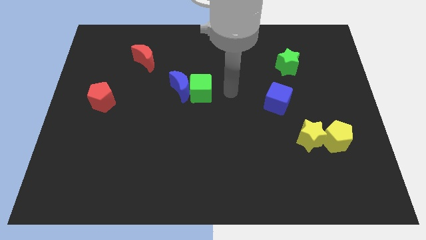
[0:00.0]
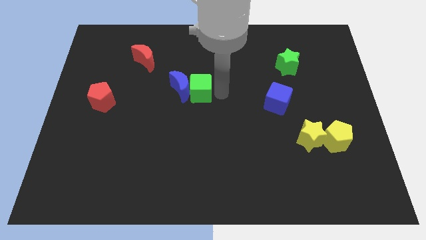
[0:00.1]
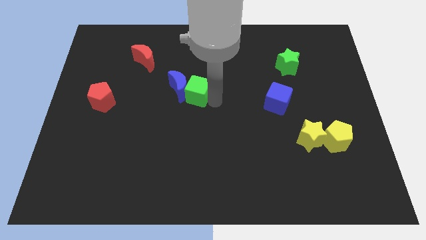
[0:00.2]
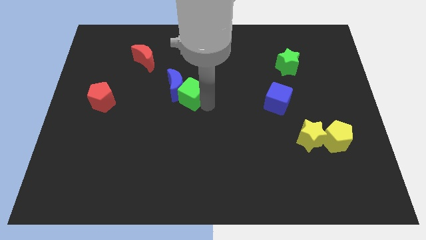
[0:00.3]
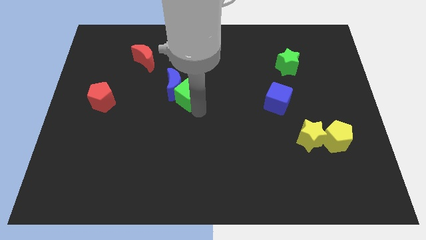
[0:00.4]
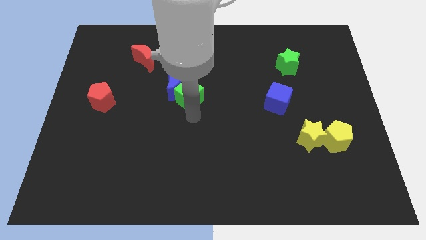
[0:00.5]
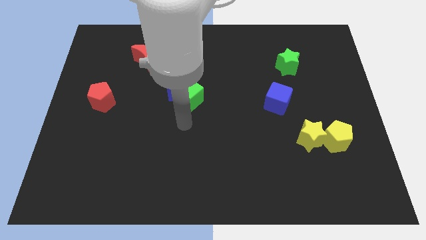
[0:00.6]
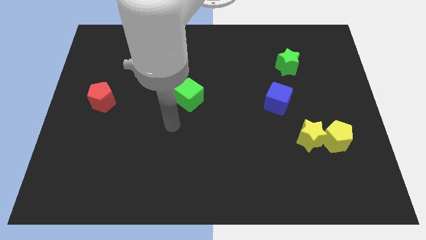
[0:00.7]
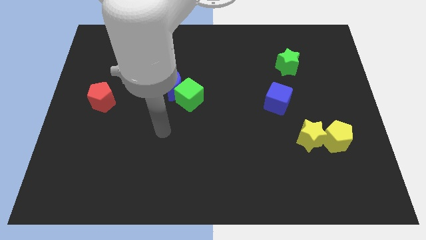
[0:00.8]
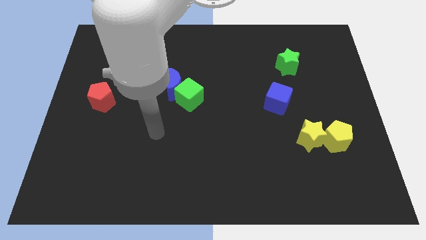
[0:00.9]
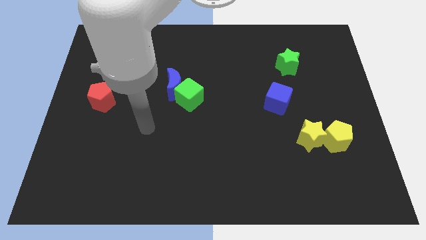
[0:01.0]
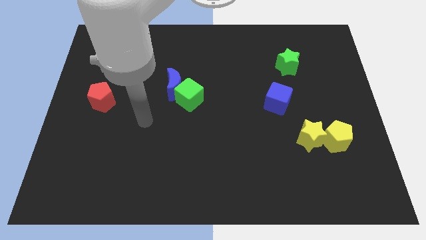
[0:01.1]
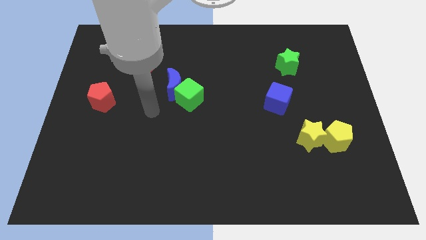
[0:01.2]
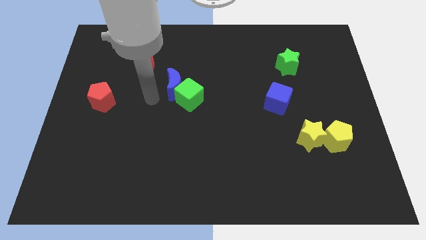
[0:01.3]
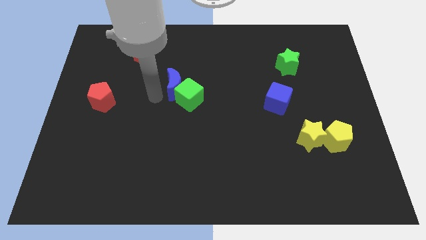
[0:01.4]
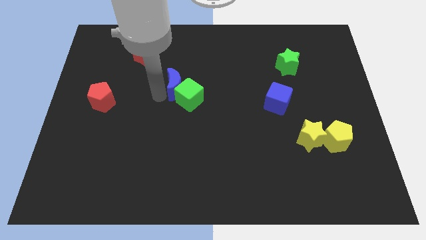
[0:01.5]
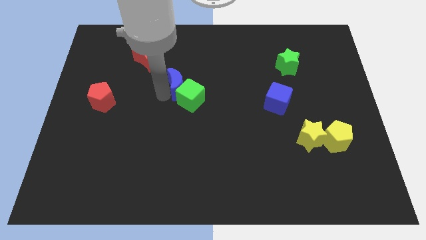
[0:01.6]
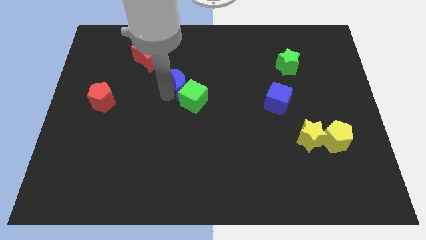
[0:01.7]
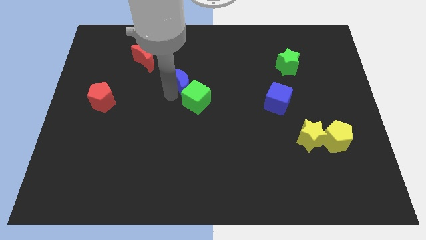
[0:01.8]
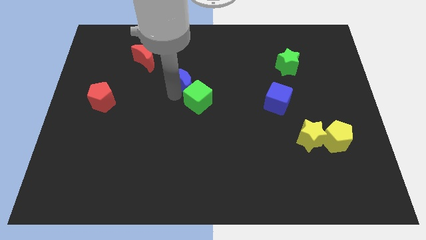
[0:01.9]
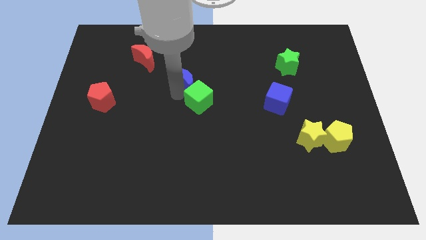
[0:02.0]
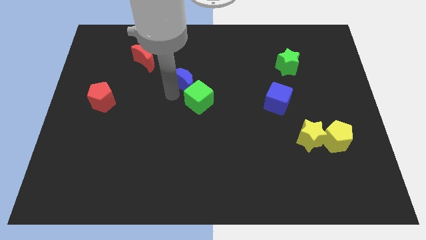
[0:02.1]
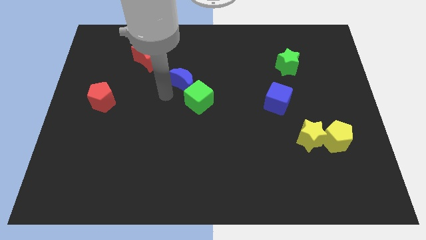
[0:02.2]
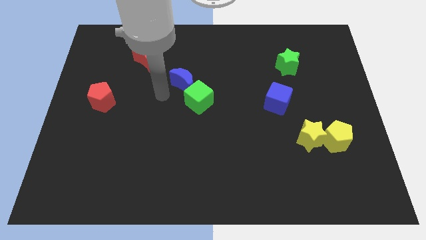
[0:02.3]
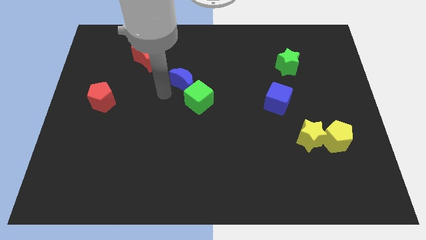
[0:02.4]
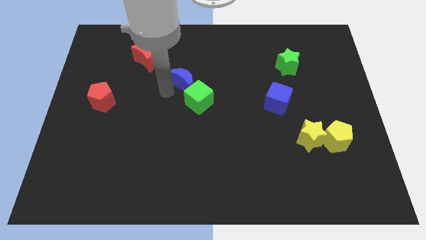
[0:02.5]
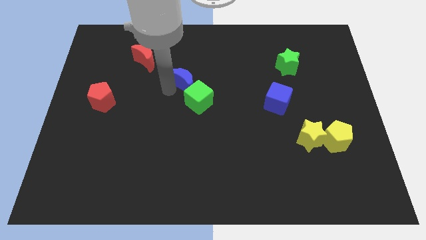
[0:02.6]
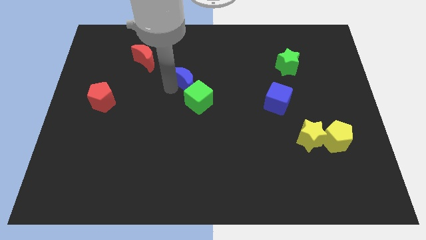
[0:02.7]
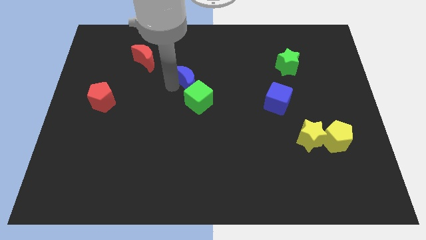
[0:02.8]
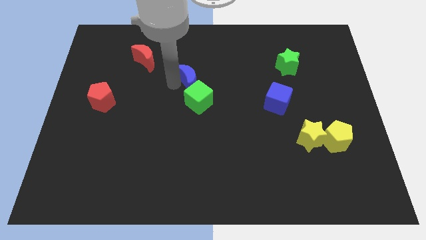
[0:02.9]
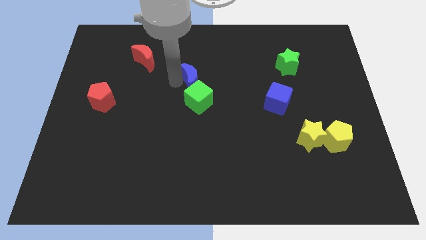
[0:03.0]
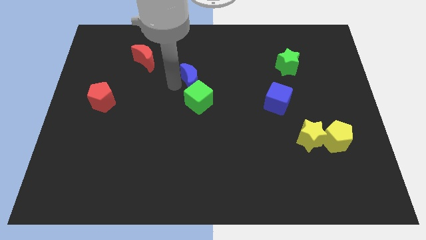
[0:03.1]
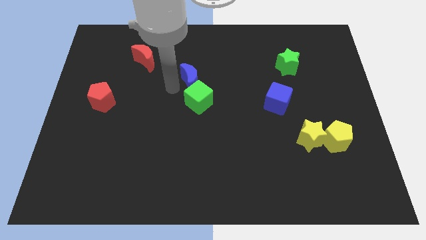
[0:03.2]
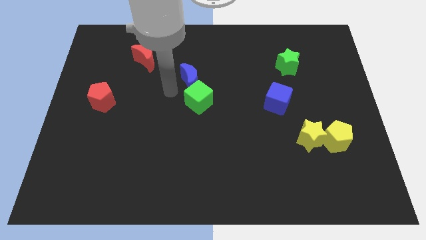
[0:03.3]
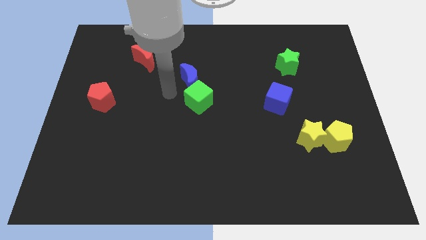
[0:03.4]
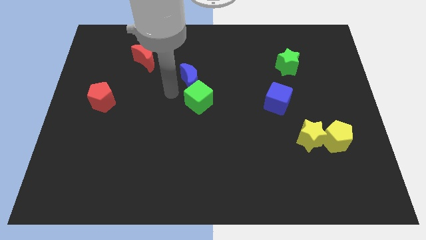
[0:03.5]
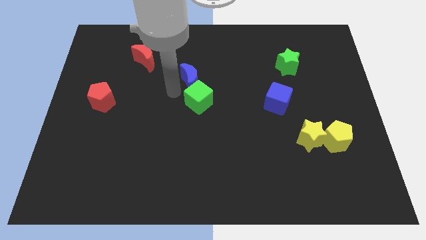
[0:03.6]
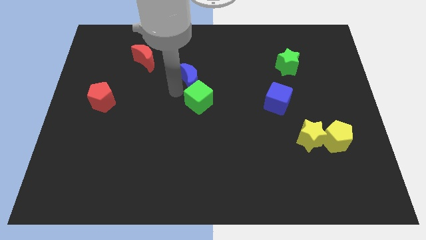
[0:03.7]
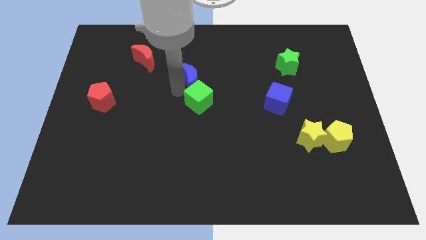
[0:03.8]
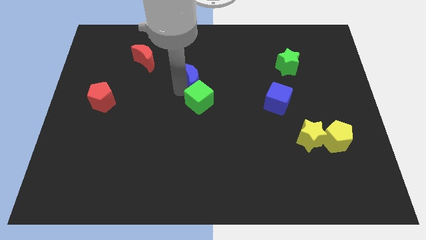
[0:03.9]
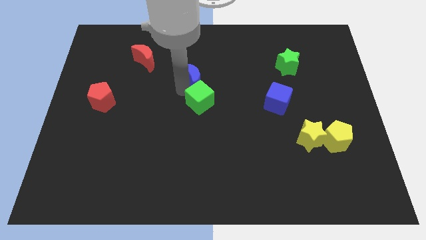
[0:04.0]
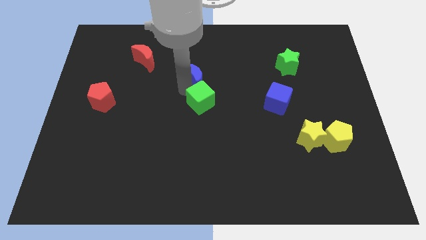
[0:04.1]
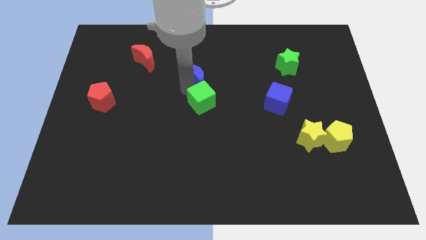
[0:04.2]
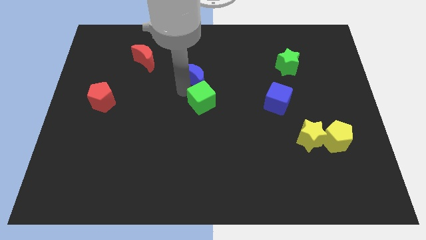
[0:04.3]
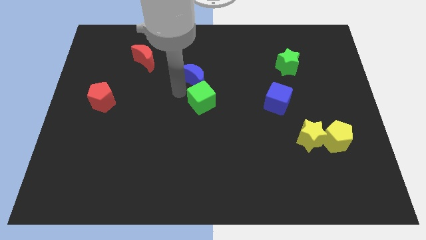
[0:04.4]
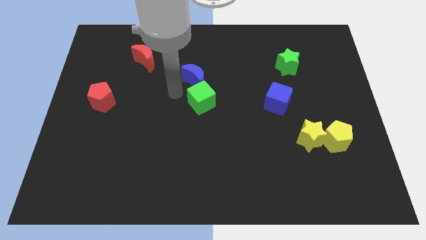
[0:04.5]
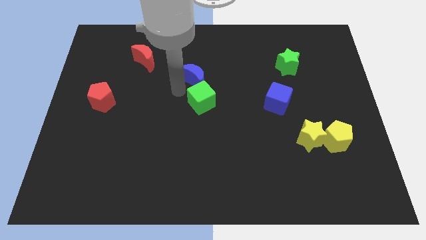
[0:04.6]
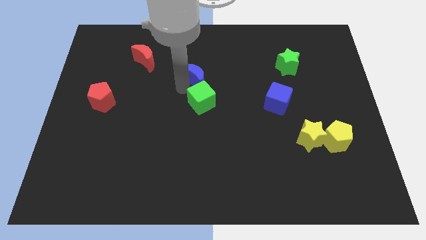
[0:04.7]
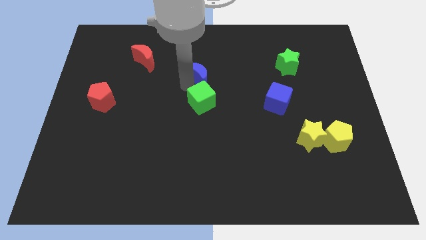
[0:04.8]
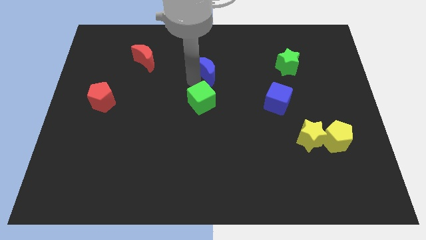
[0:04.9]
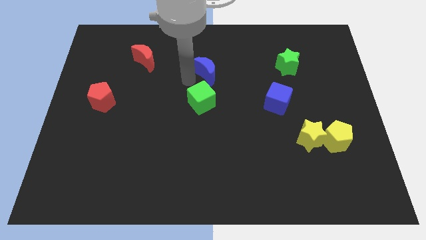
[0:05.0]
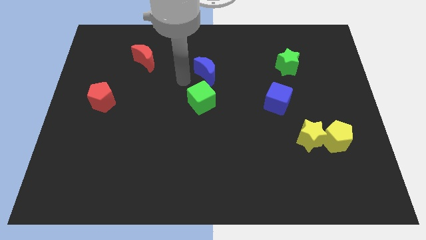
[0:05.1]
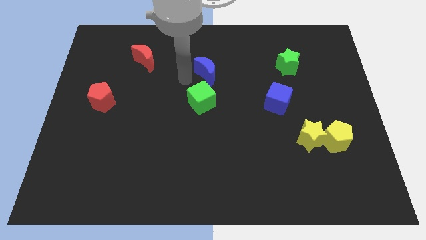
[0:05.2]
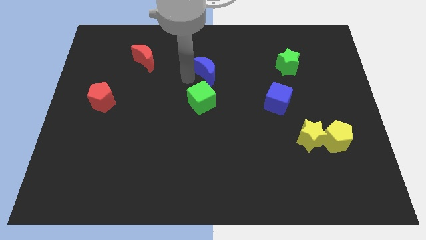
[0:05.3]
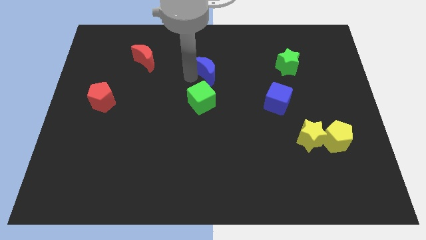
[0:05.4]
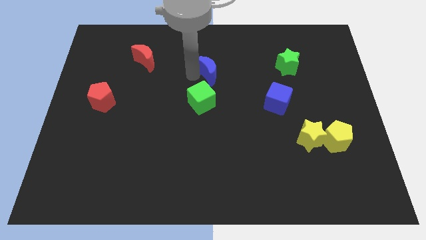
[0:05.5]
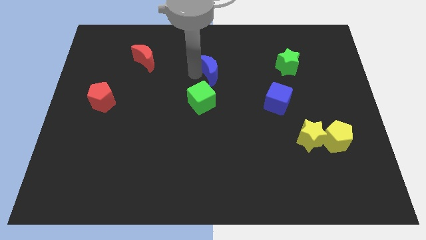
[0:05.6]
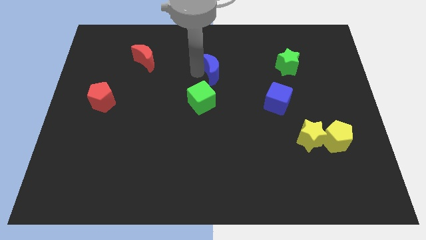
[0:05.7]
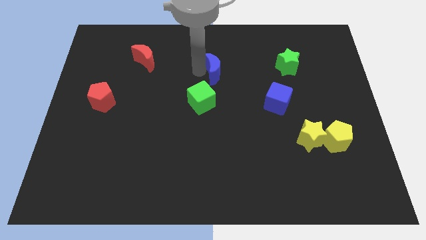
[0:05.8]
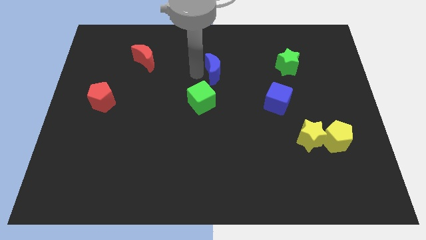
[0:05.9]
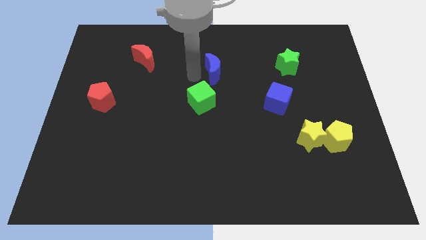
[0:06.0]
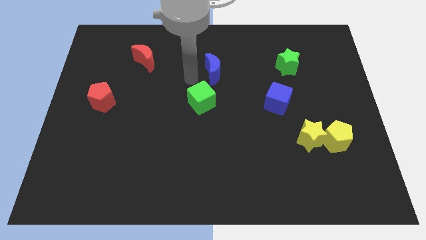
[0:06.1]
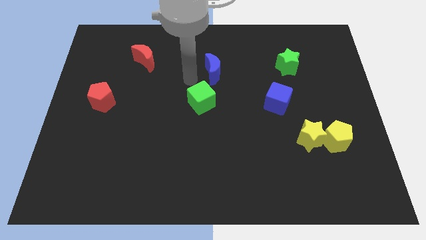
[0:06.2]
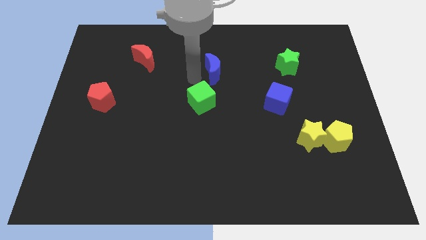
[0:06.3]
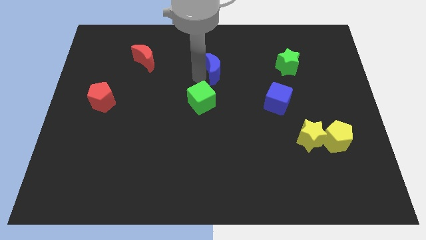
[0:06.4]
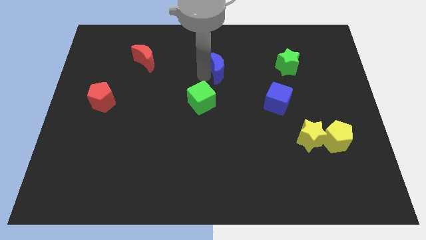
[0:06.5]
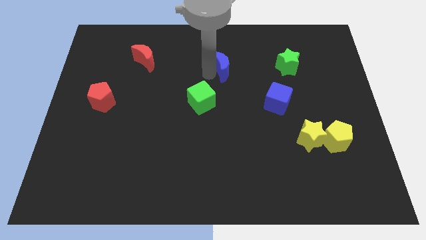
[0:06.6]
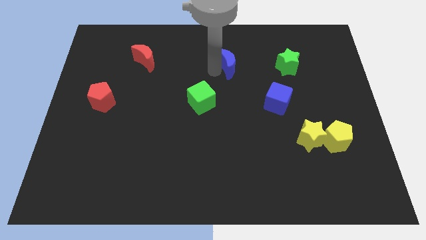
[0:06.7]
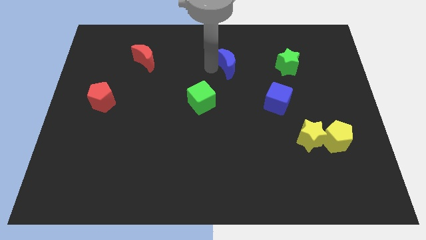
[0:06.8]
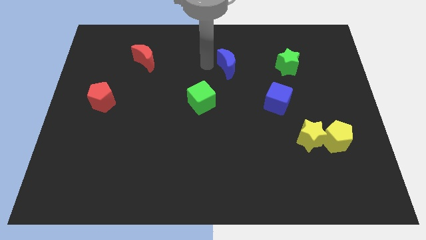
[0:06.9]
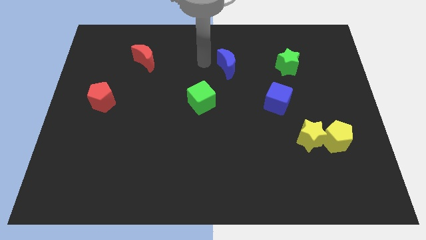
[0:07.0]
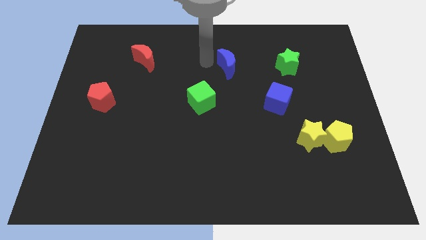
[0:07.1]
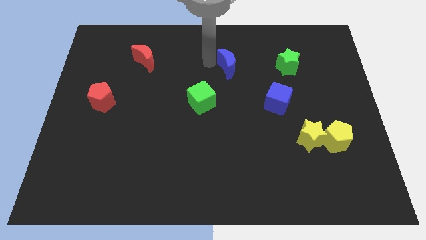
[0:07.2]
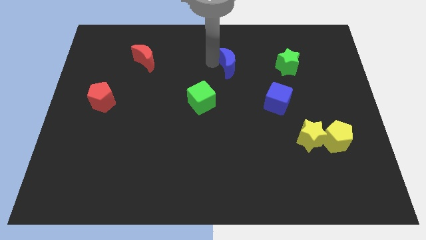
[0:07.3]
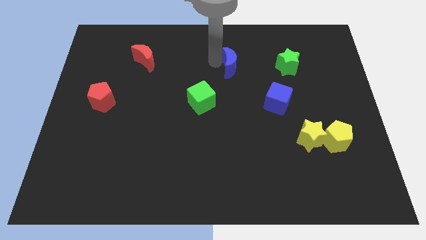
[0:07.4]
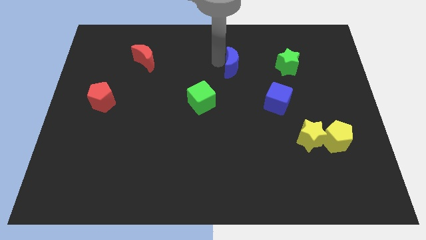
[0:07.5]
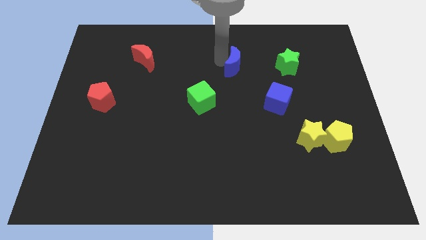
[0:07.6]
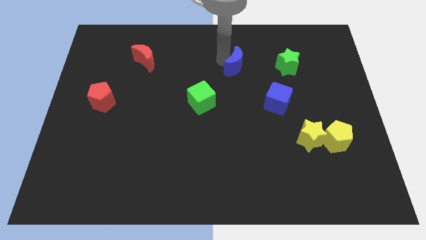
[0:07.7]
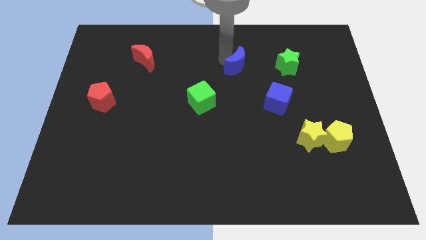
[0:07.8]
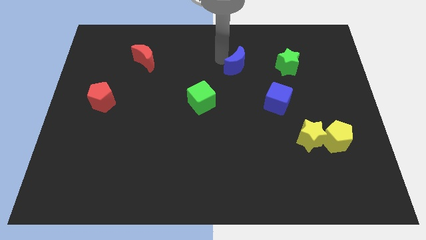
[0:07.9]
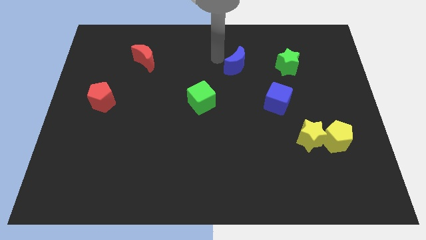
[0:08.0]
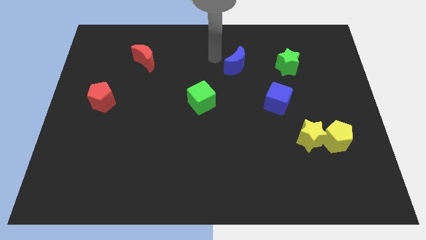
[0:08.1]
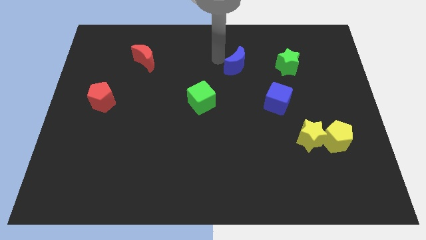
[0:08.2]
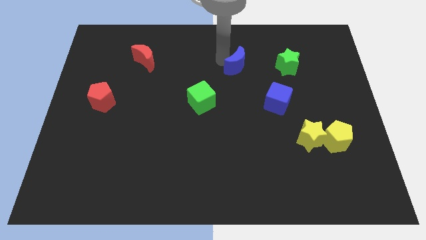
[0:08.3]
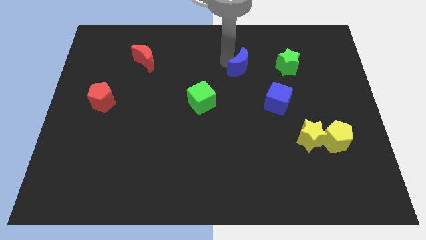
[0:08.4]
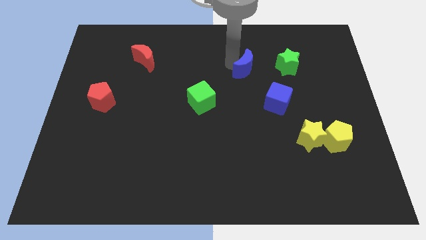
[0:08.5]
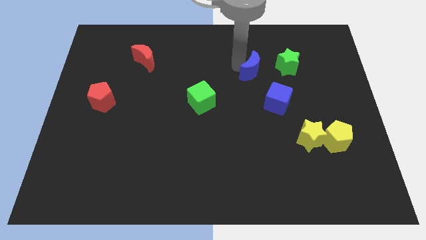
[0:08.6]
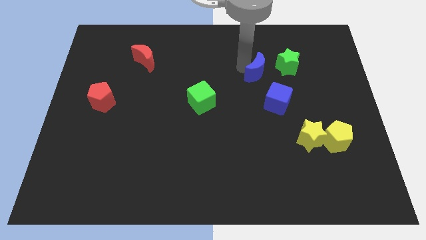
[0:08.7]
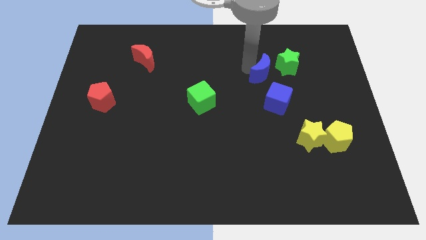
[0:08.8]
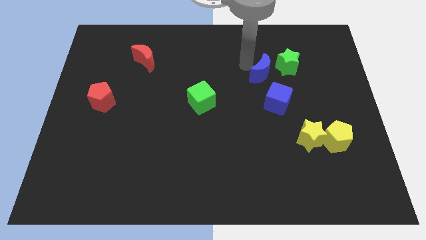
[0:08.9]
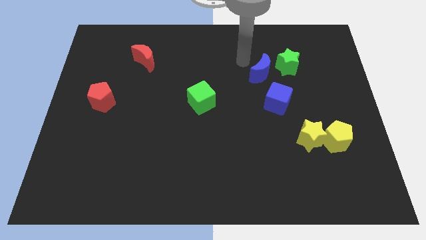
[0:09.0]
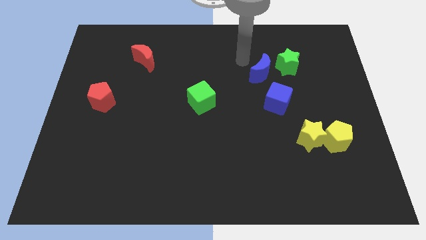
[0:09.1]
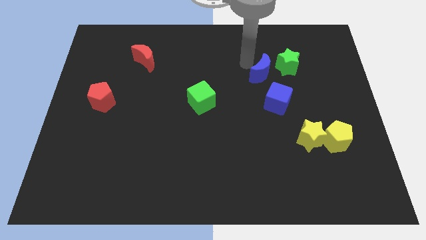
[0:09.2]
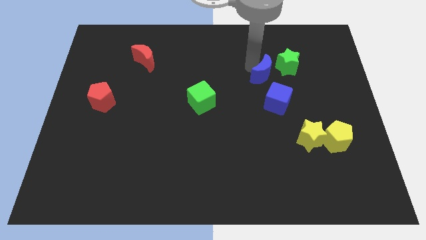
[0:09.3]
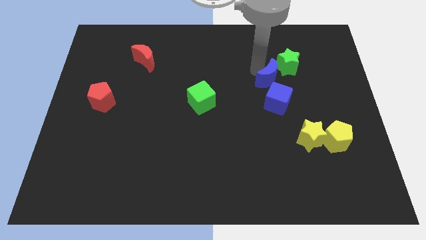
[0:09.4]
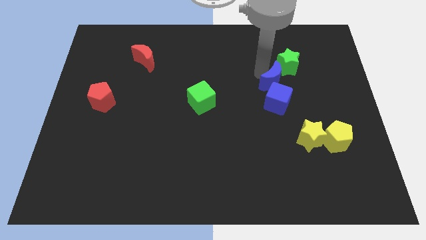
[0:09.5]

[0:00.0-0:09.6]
put the blue moon to the bottom of the green star
